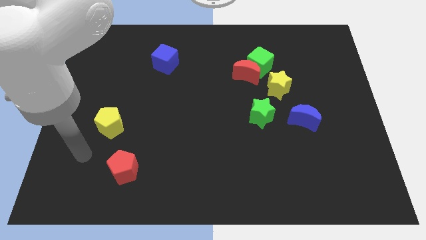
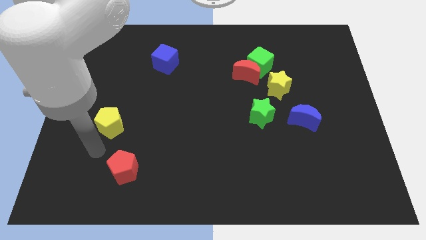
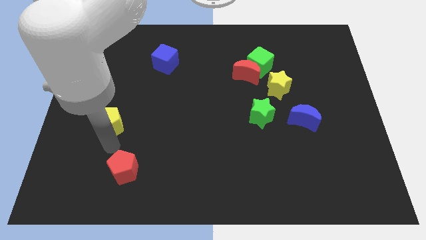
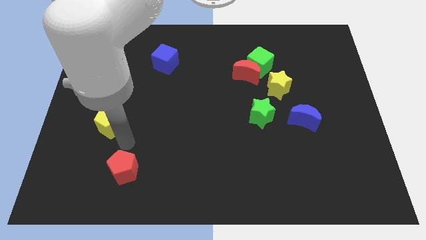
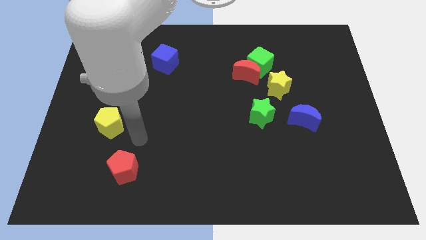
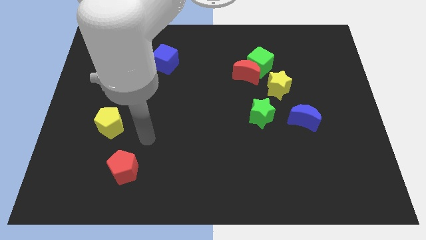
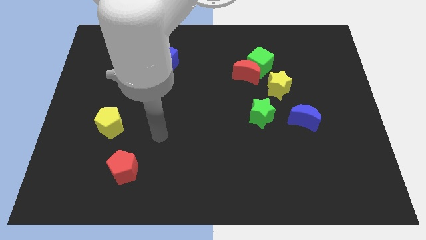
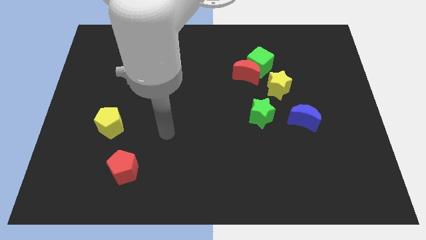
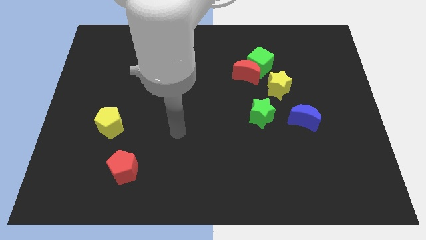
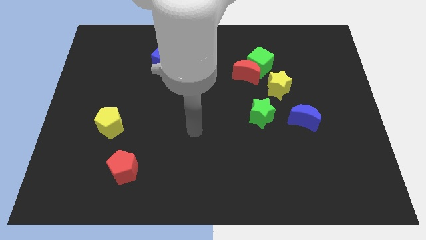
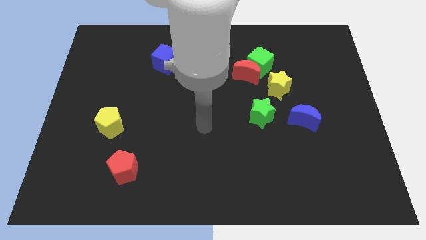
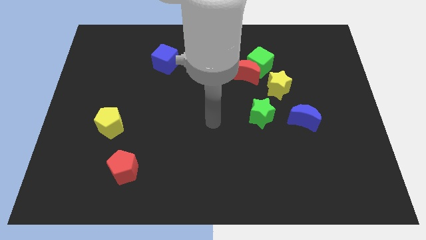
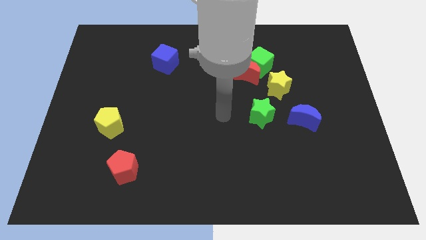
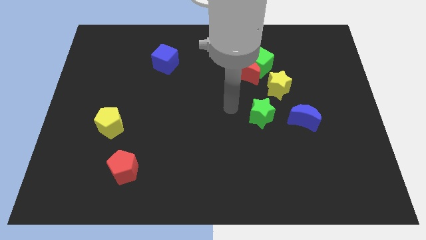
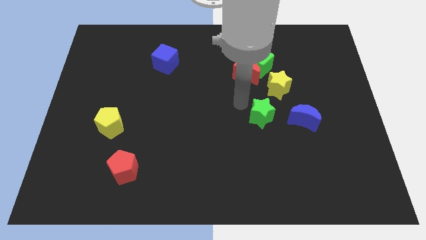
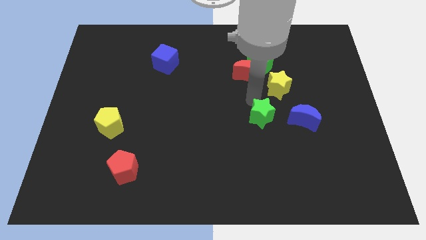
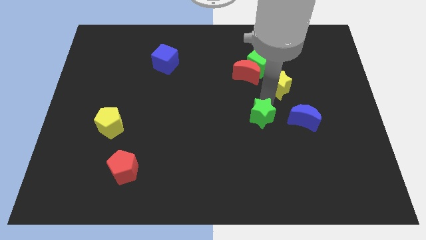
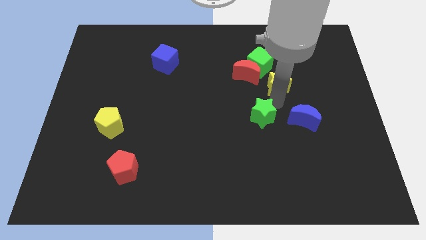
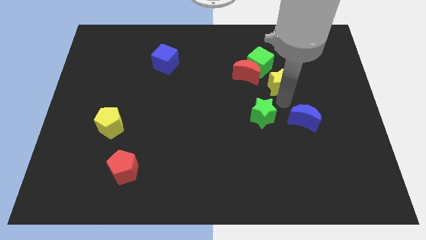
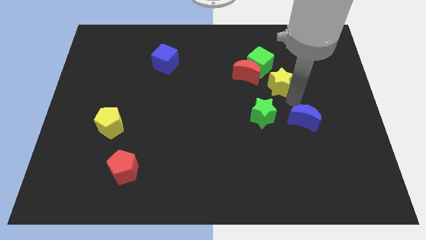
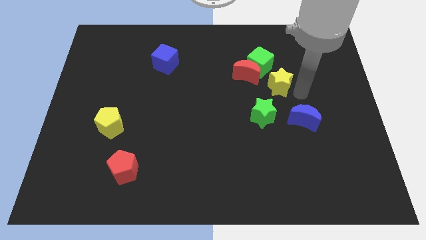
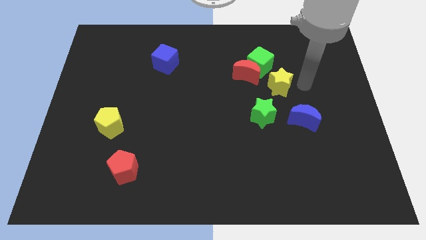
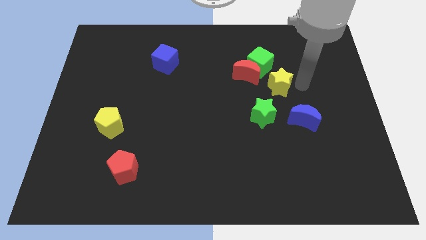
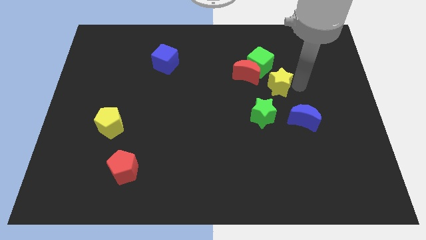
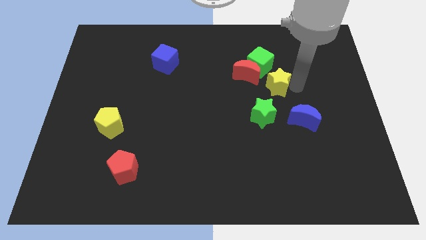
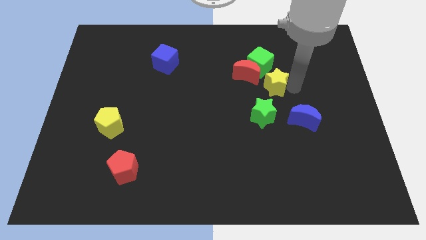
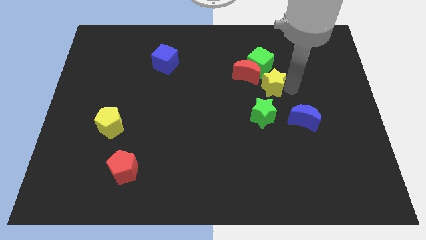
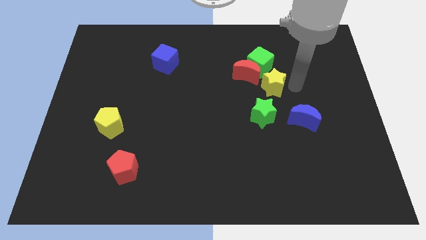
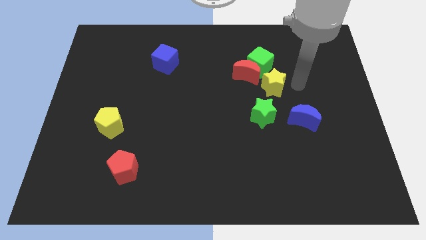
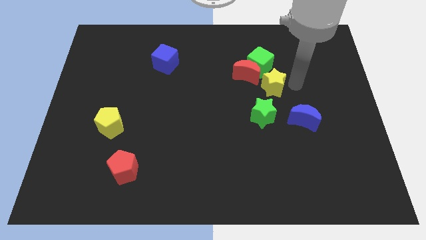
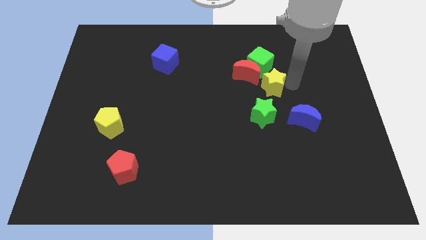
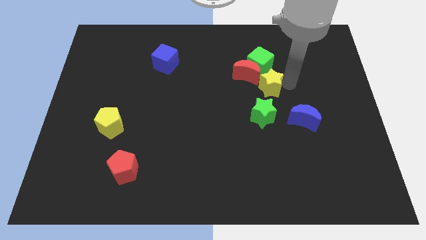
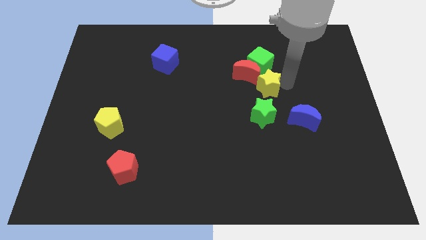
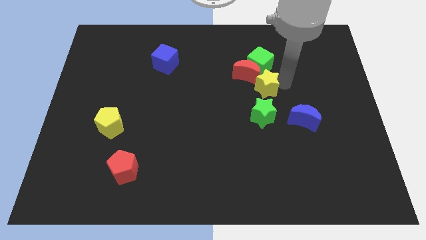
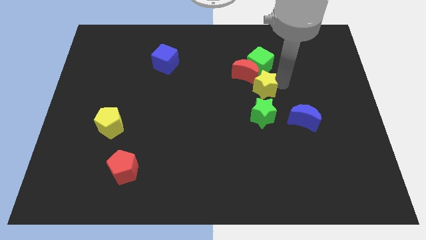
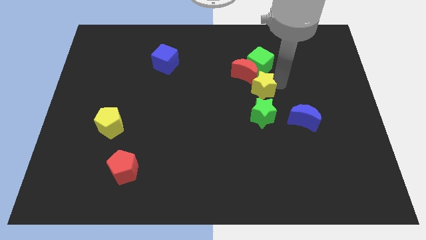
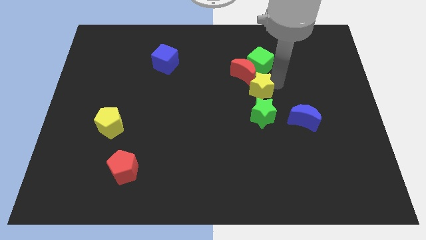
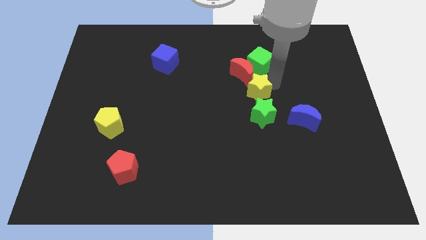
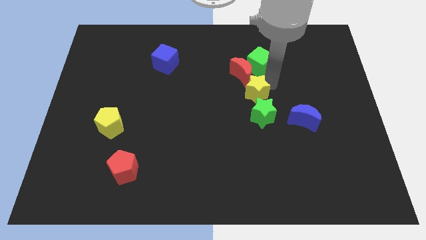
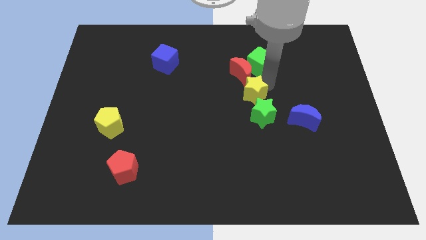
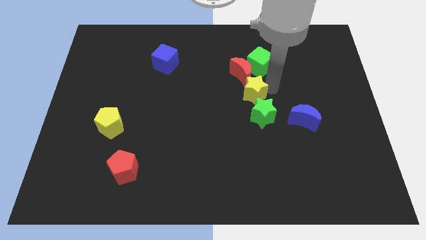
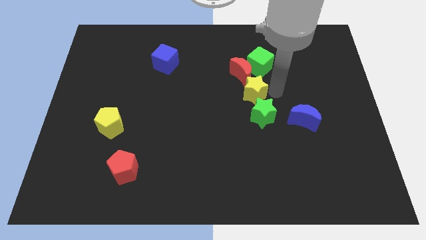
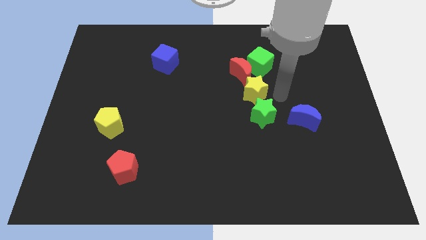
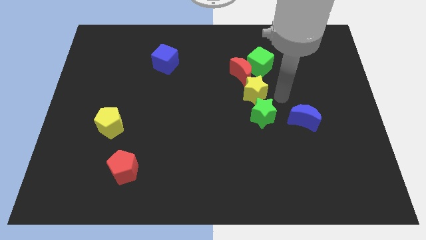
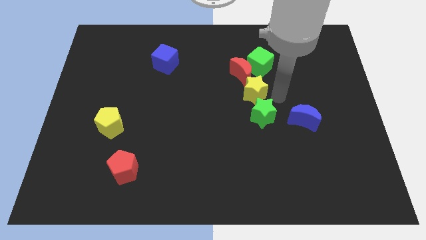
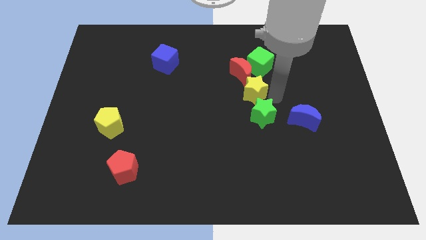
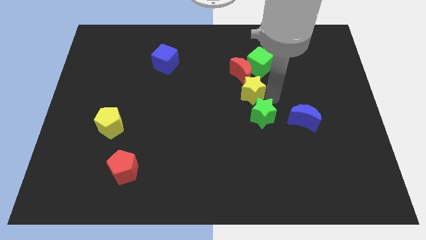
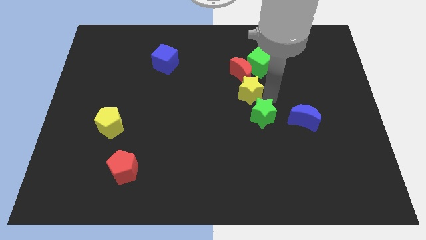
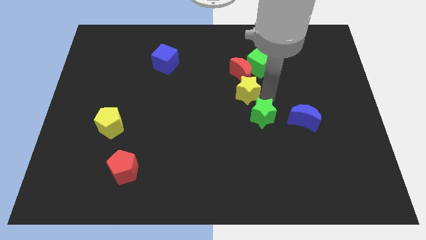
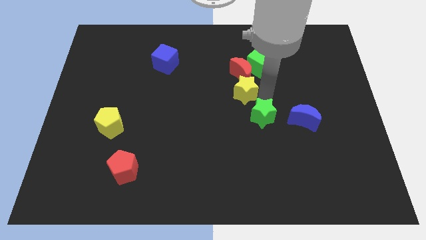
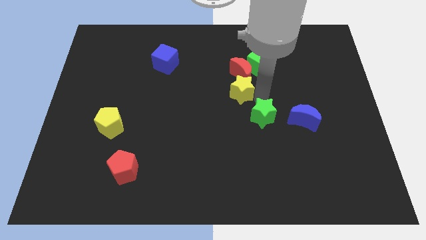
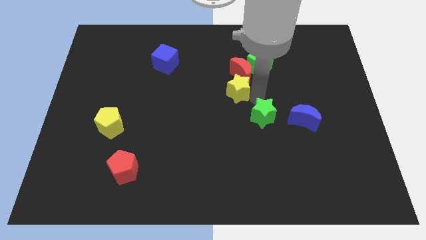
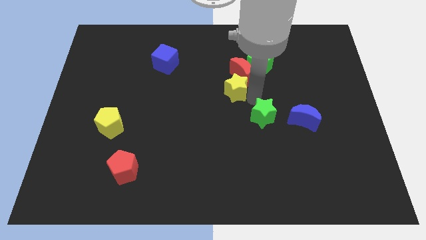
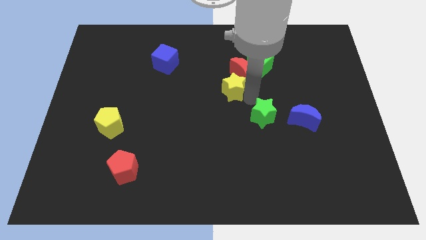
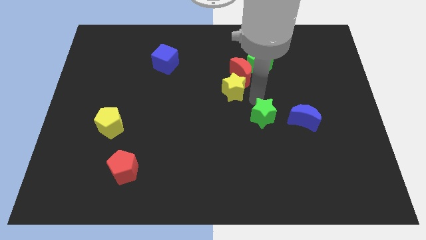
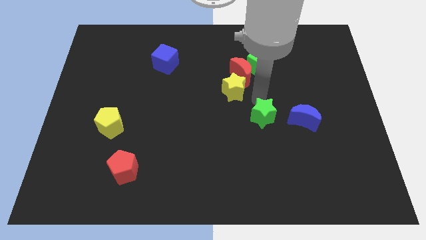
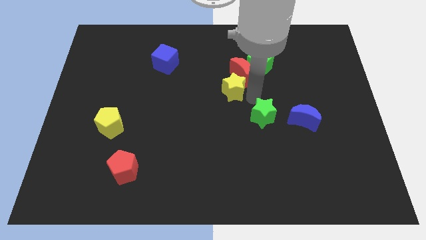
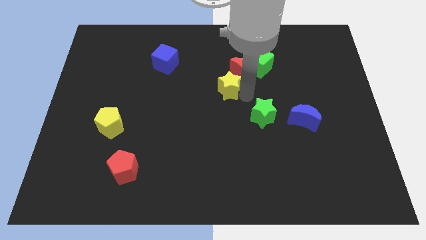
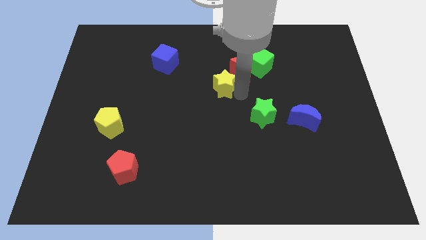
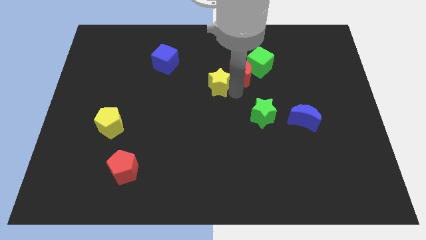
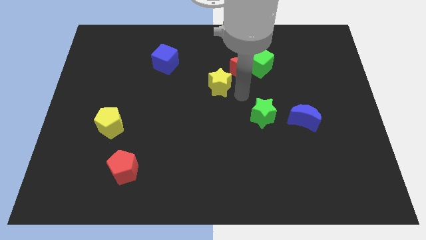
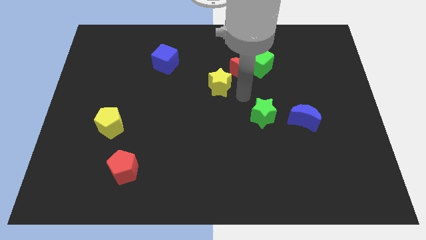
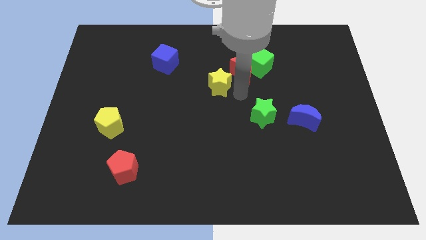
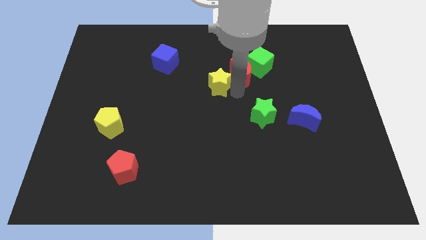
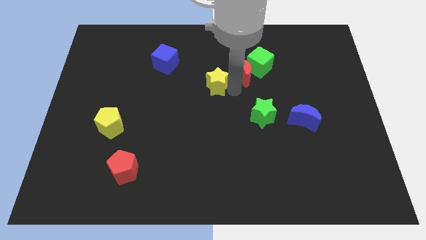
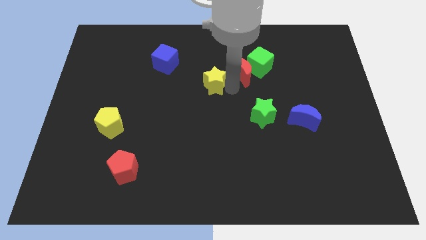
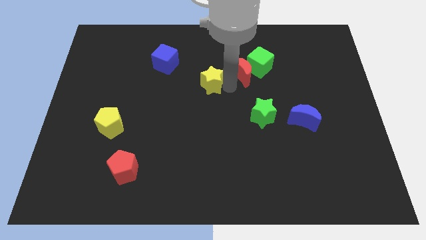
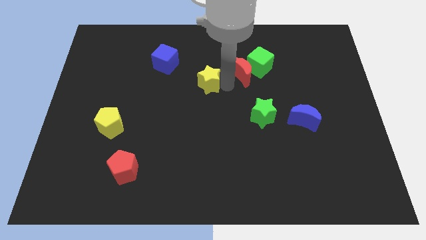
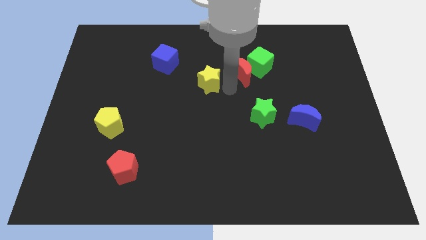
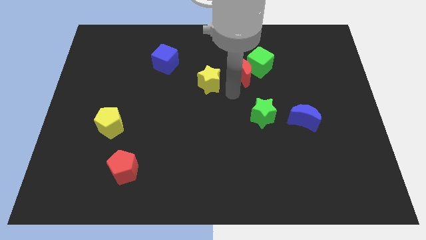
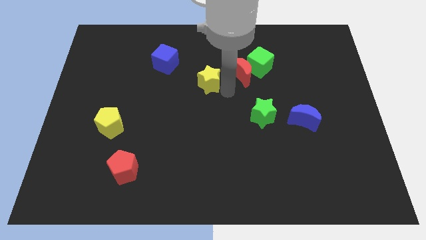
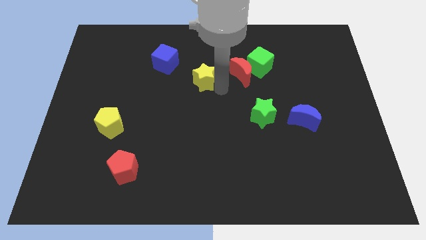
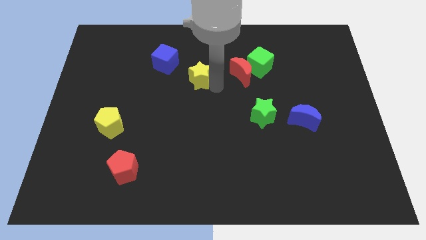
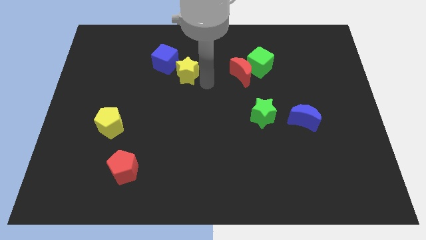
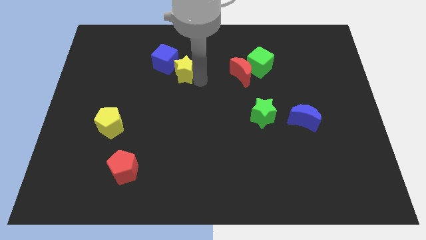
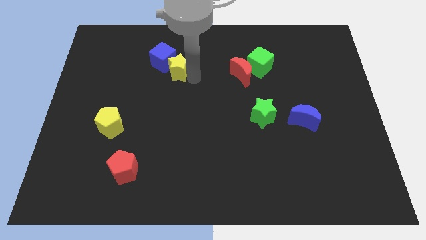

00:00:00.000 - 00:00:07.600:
move the yellow star to the blue cube
